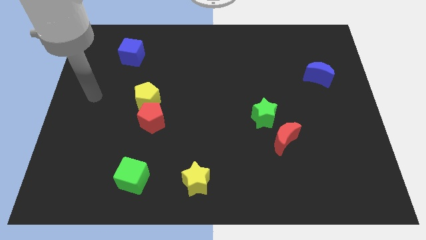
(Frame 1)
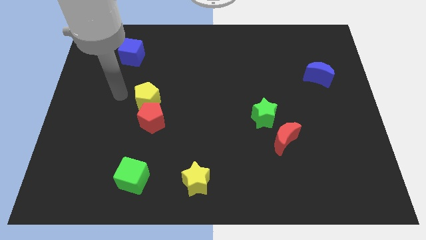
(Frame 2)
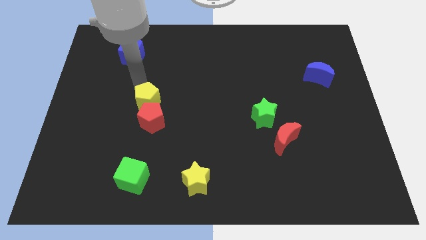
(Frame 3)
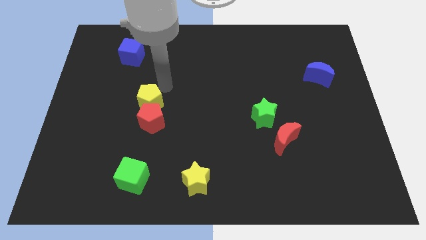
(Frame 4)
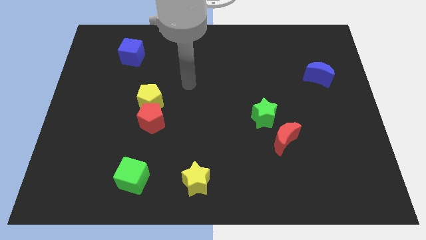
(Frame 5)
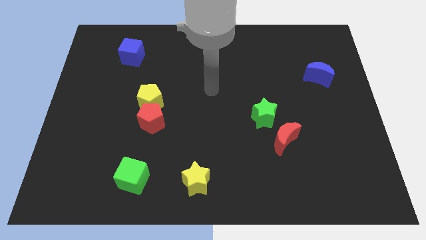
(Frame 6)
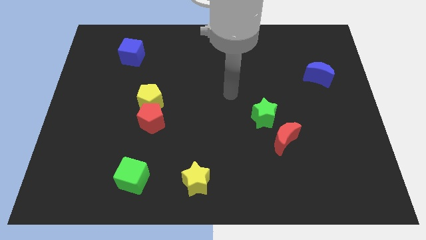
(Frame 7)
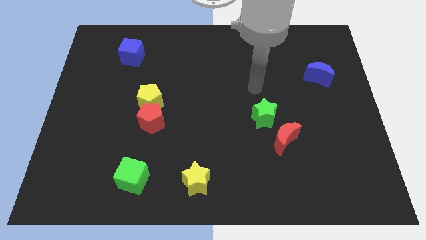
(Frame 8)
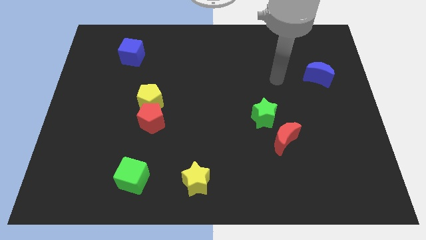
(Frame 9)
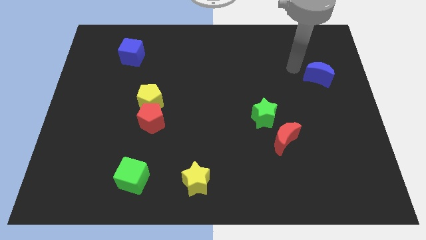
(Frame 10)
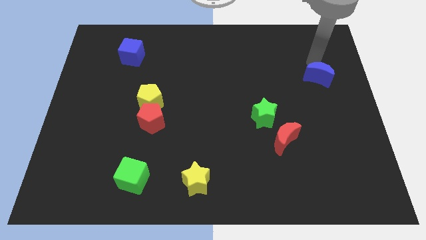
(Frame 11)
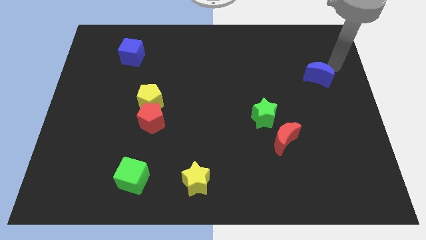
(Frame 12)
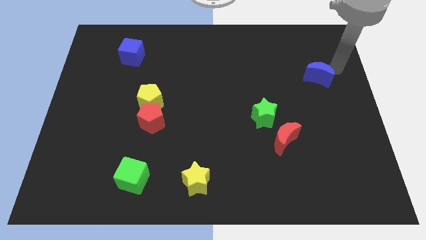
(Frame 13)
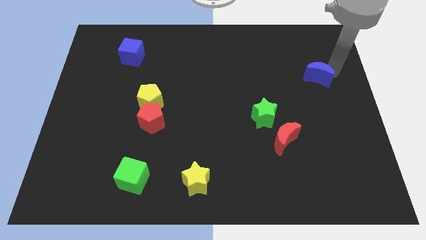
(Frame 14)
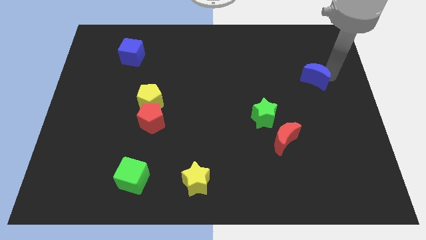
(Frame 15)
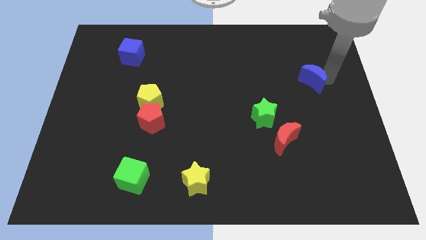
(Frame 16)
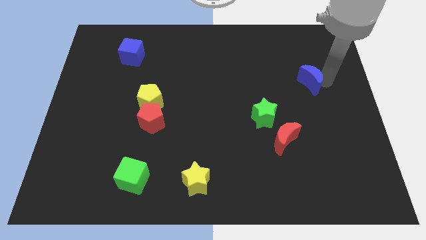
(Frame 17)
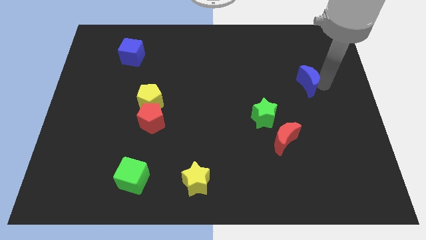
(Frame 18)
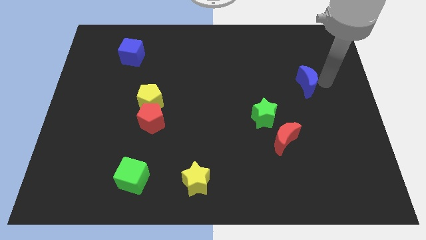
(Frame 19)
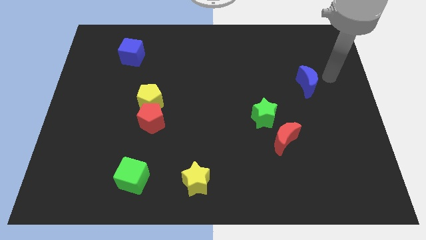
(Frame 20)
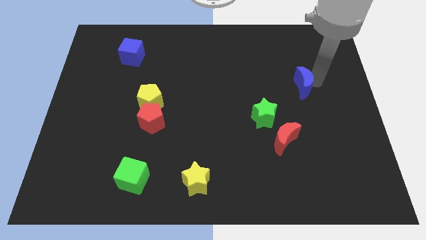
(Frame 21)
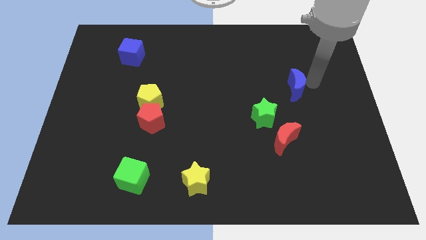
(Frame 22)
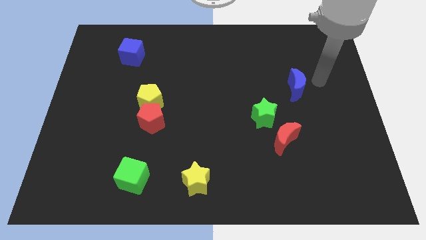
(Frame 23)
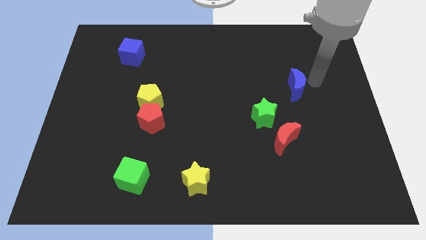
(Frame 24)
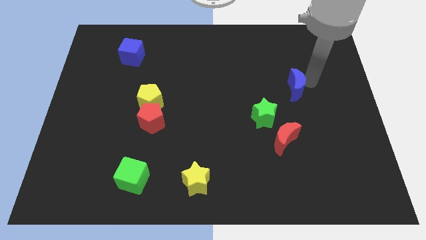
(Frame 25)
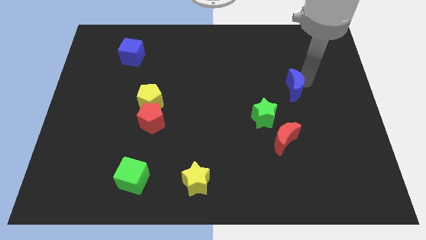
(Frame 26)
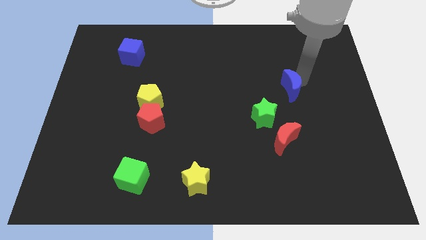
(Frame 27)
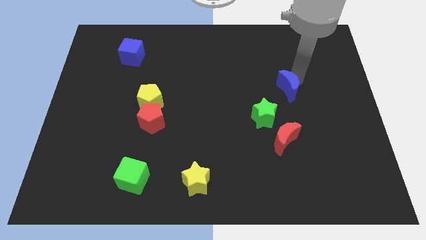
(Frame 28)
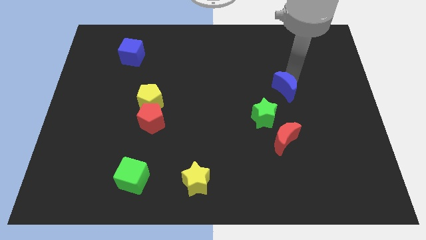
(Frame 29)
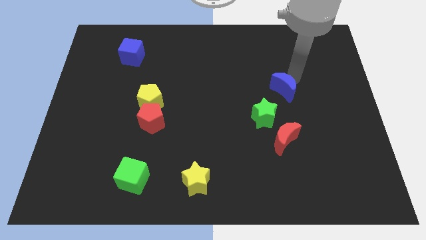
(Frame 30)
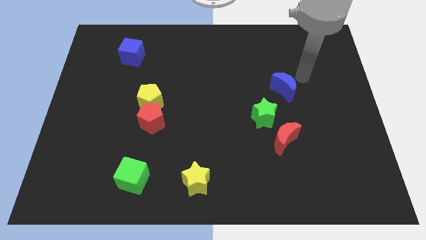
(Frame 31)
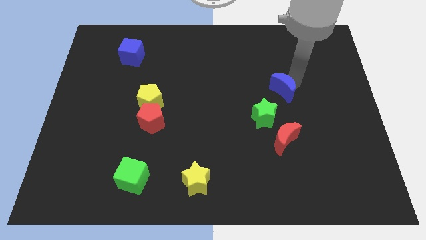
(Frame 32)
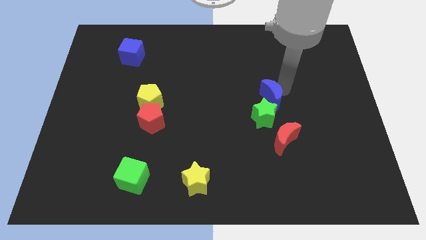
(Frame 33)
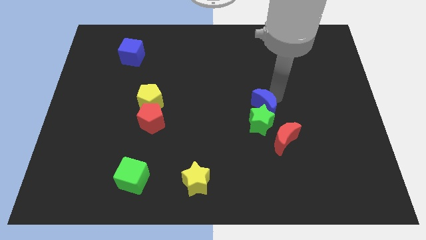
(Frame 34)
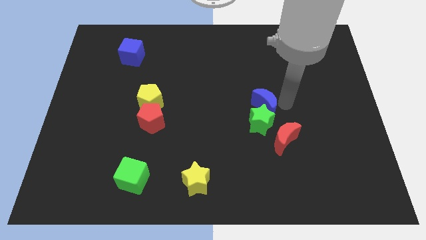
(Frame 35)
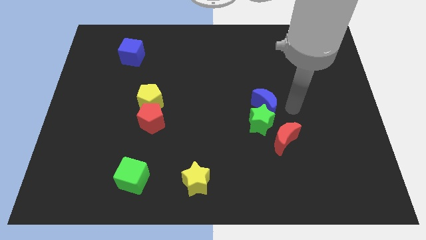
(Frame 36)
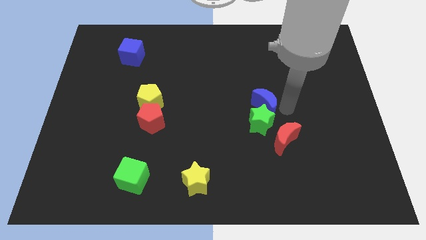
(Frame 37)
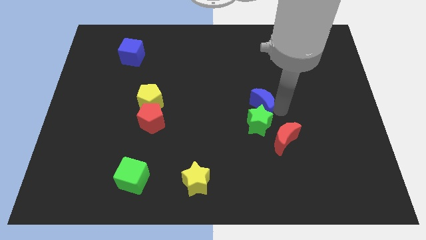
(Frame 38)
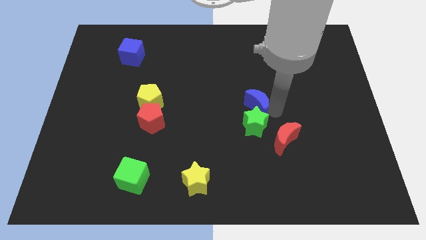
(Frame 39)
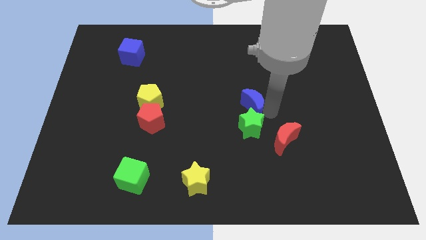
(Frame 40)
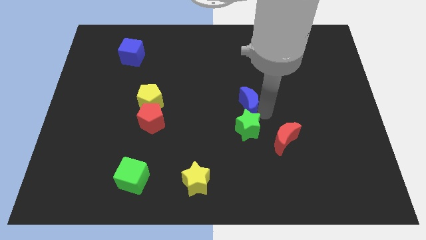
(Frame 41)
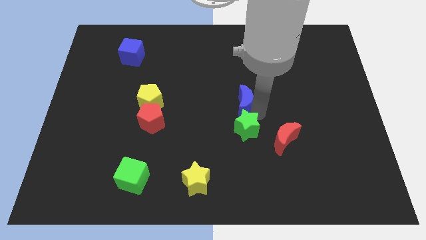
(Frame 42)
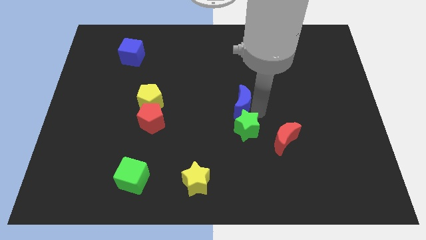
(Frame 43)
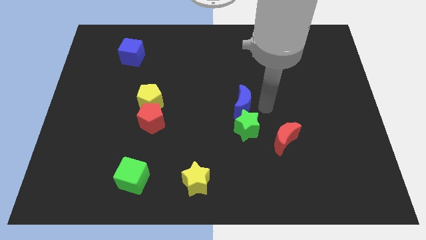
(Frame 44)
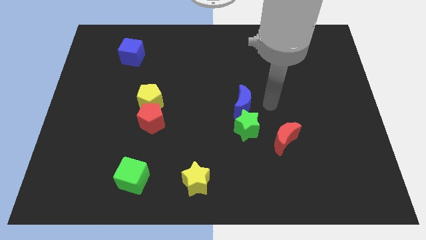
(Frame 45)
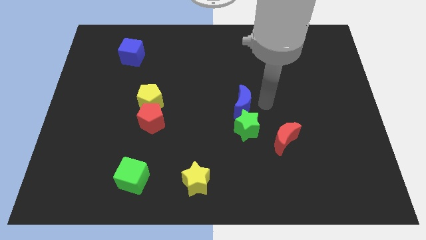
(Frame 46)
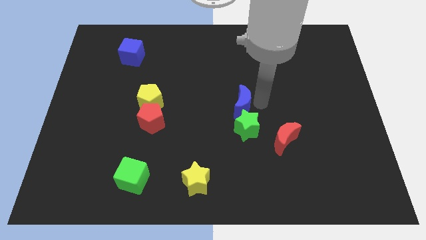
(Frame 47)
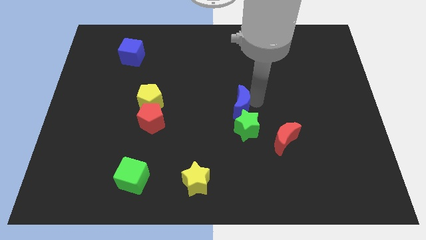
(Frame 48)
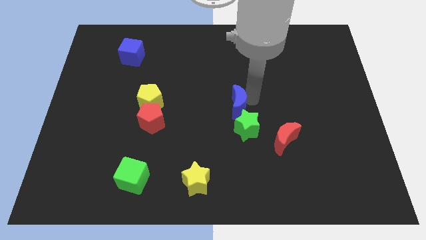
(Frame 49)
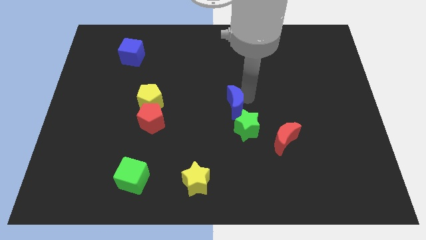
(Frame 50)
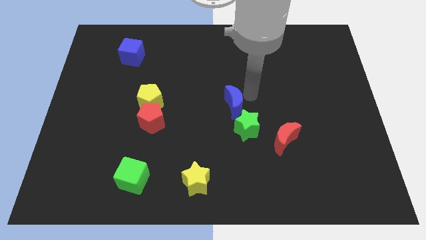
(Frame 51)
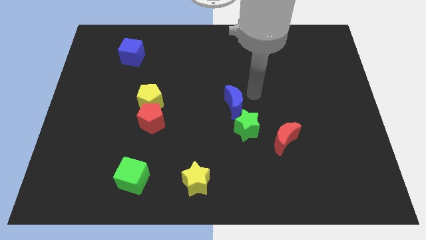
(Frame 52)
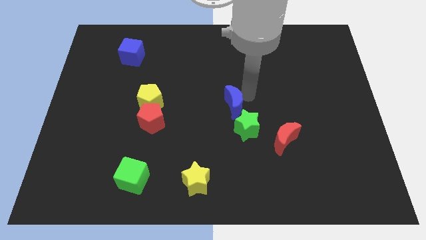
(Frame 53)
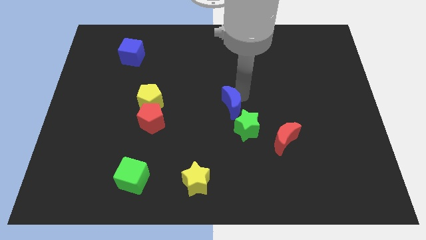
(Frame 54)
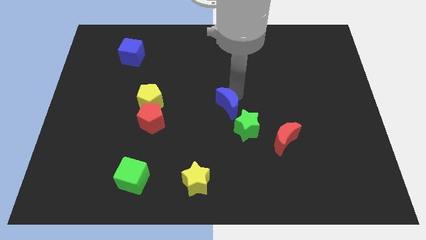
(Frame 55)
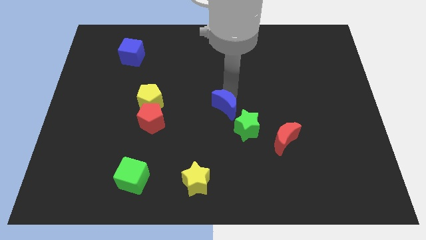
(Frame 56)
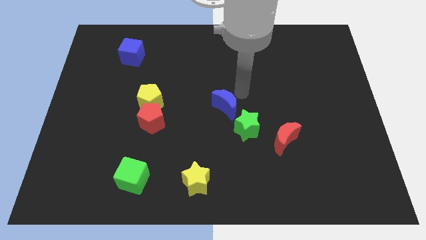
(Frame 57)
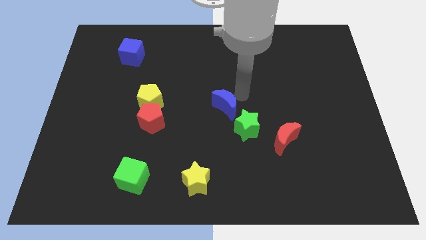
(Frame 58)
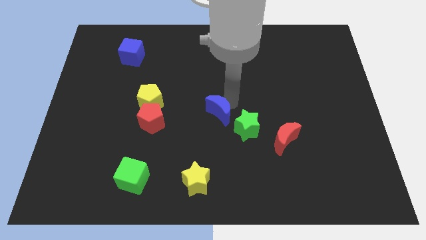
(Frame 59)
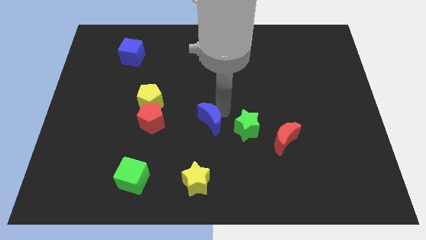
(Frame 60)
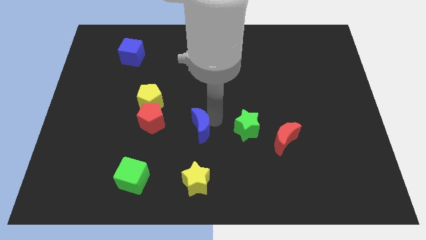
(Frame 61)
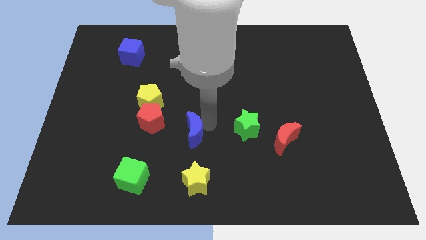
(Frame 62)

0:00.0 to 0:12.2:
push the blue moon to the bottom right side of the red pentagon
